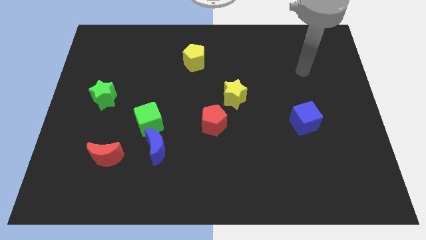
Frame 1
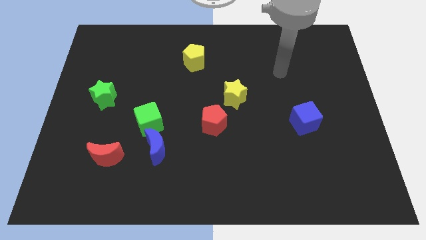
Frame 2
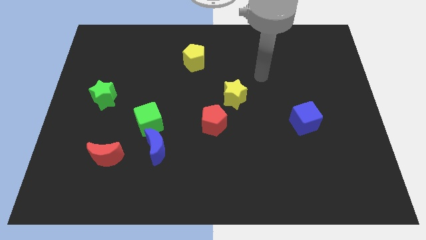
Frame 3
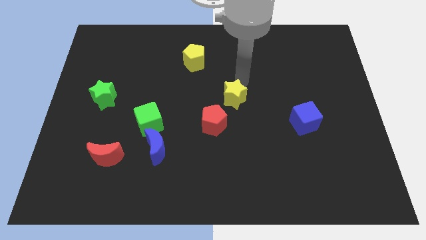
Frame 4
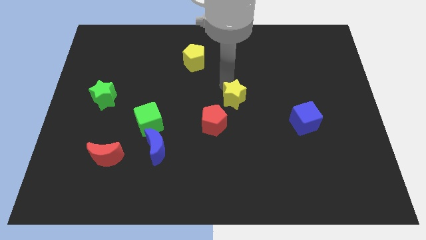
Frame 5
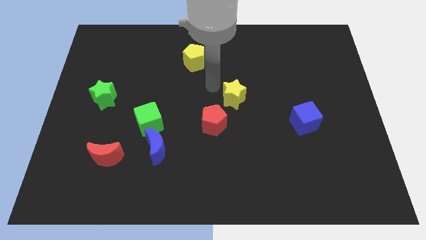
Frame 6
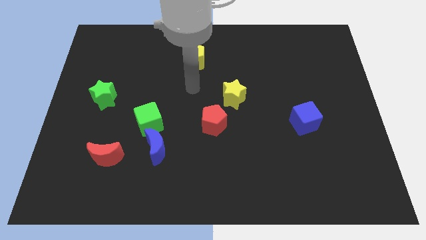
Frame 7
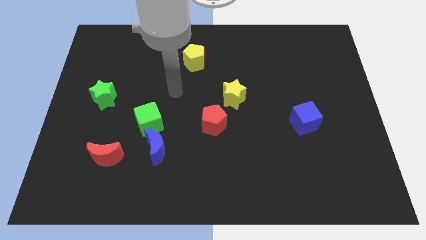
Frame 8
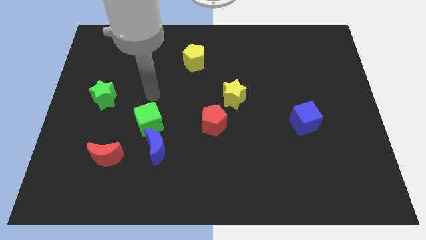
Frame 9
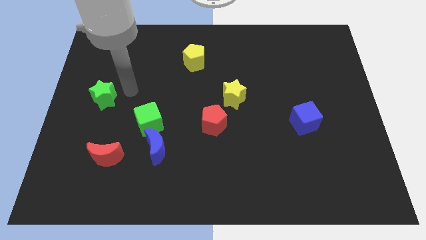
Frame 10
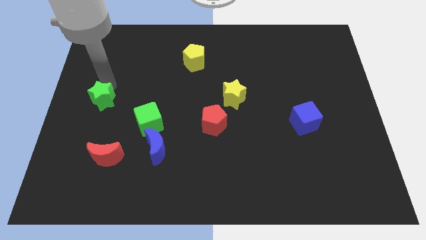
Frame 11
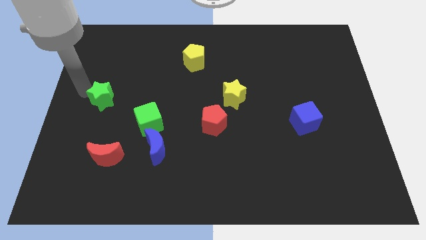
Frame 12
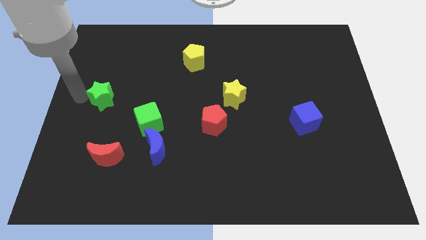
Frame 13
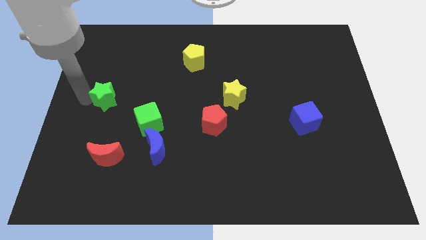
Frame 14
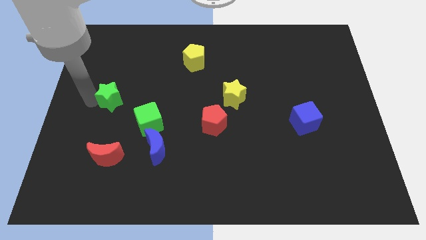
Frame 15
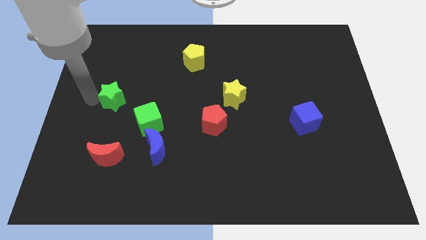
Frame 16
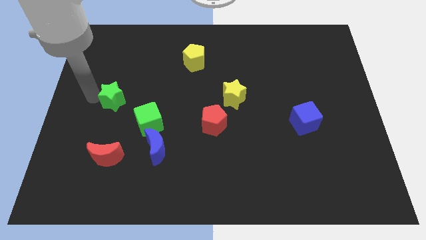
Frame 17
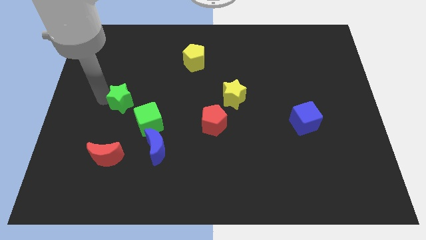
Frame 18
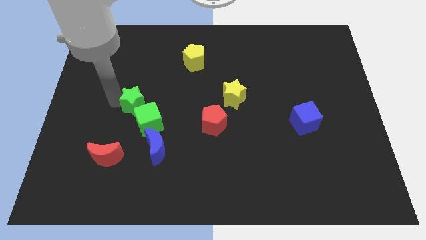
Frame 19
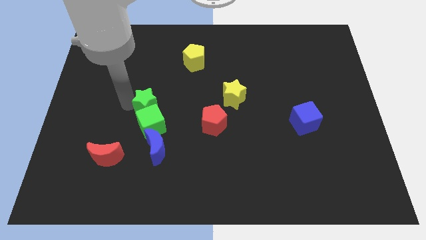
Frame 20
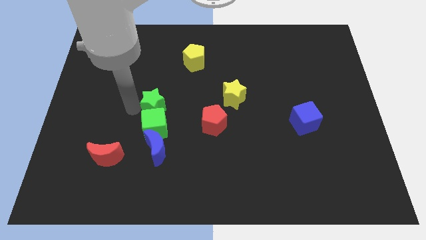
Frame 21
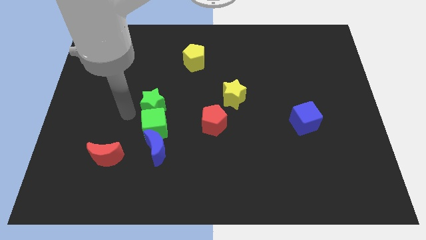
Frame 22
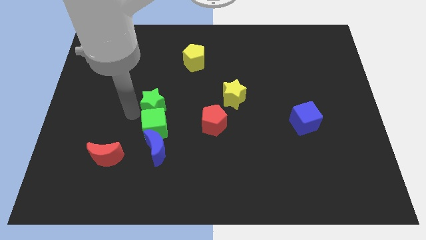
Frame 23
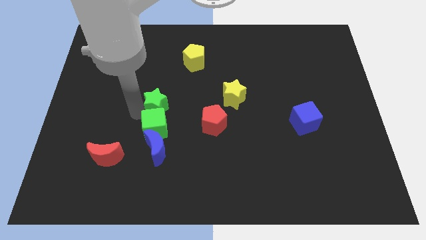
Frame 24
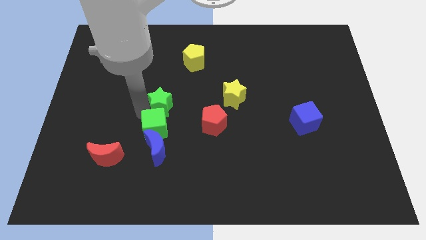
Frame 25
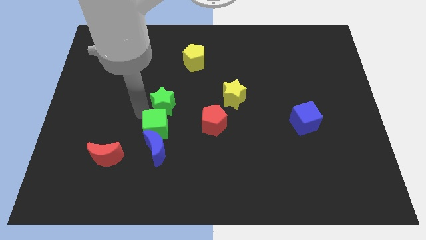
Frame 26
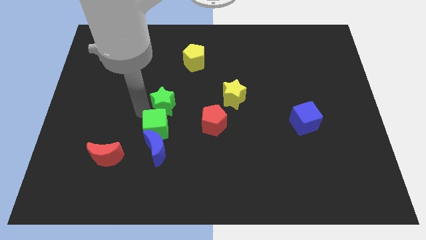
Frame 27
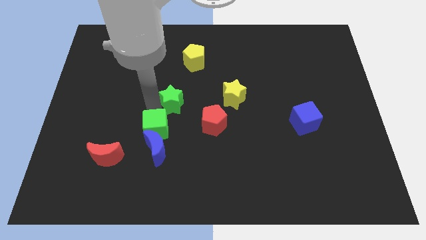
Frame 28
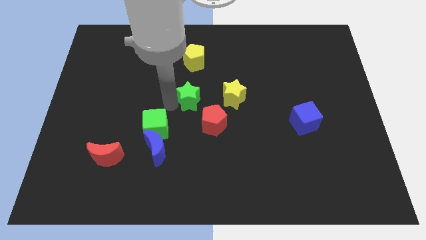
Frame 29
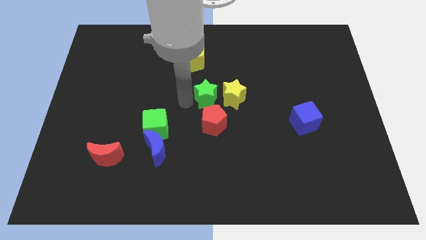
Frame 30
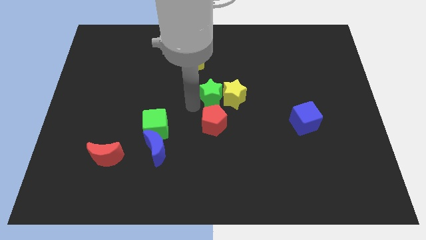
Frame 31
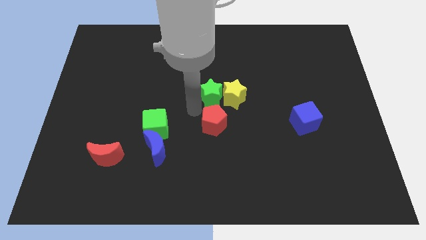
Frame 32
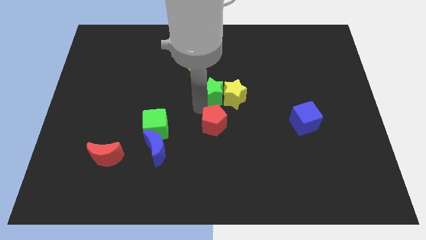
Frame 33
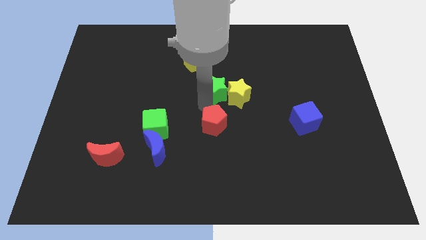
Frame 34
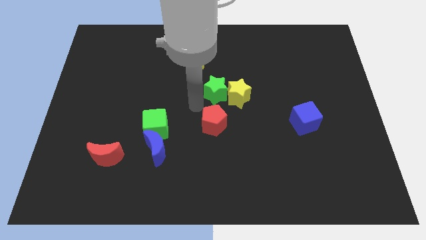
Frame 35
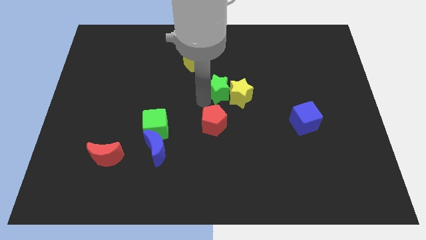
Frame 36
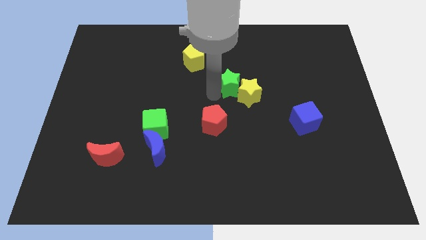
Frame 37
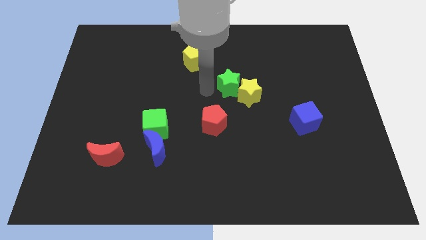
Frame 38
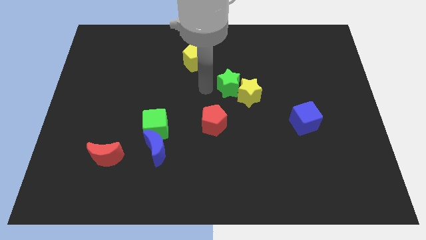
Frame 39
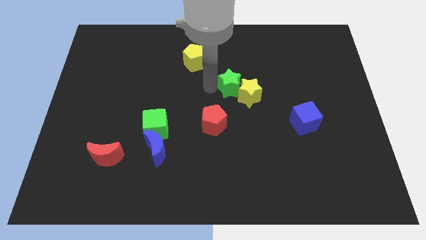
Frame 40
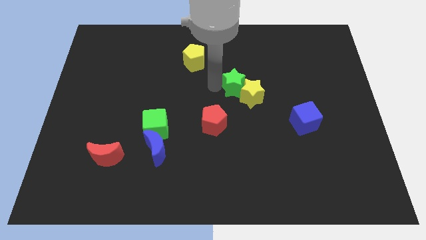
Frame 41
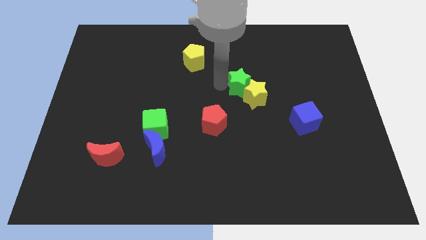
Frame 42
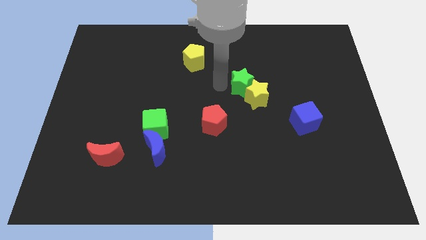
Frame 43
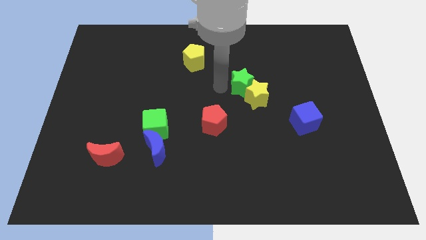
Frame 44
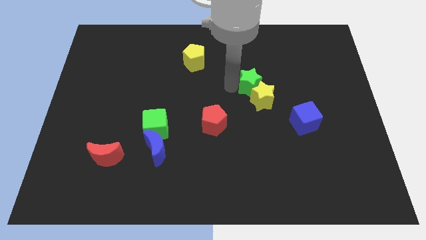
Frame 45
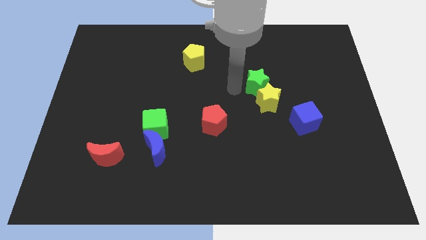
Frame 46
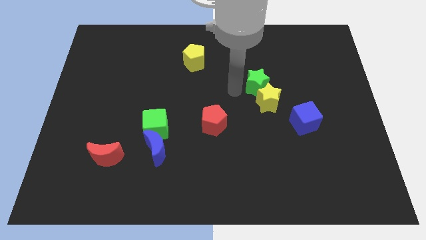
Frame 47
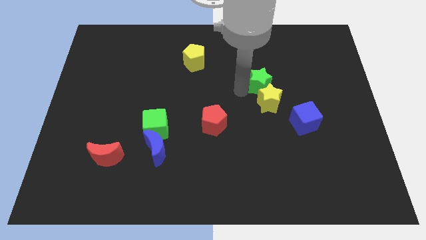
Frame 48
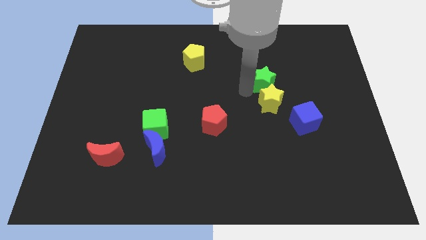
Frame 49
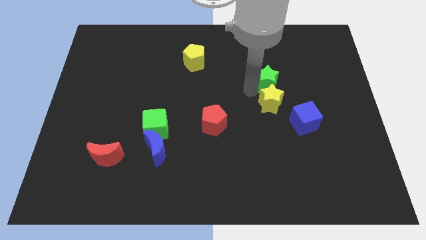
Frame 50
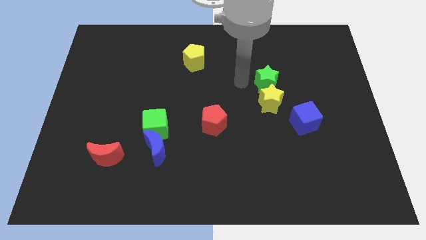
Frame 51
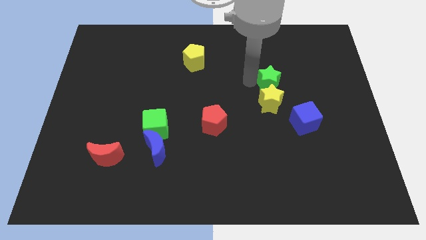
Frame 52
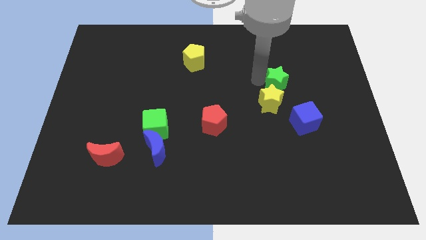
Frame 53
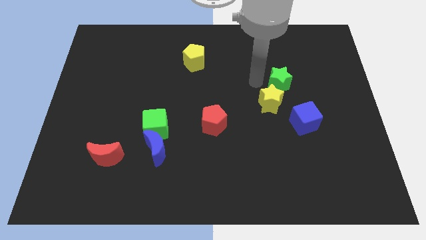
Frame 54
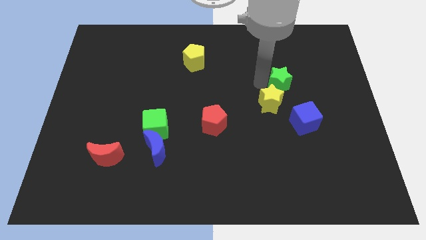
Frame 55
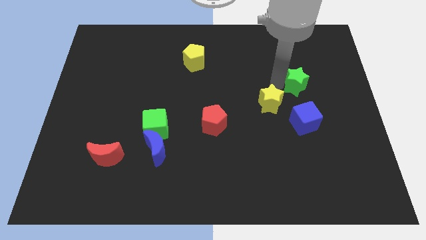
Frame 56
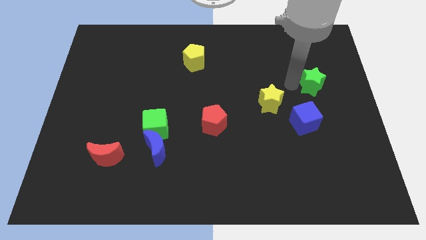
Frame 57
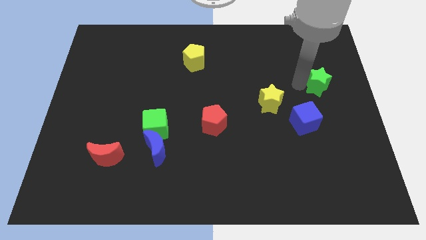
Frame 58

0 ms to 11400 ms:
push the green star to the right side

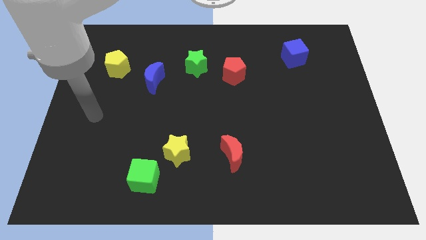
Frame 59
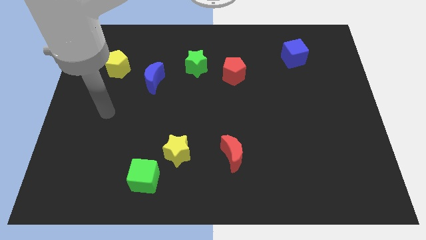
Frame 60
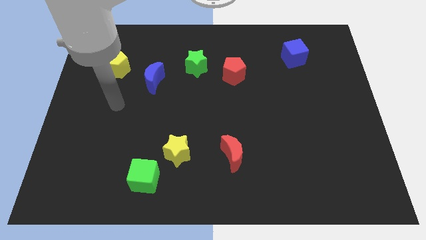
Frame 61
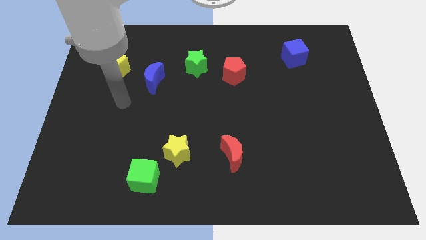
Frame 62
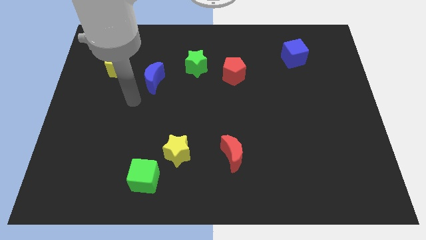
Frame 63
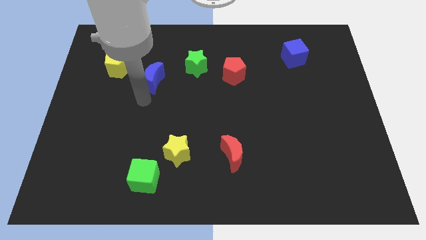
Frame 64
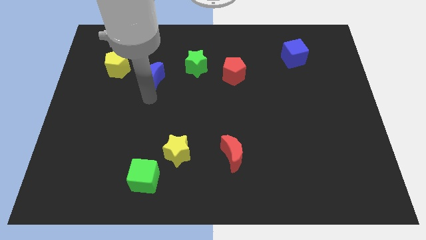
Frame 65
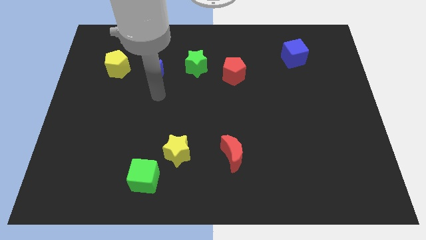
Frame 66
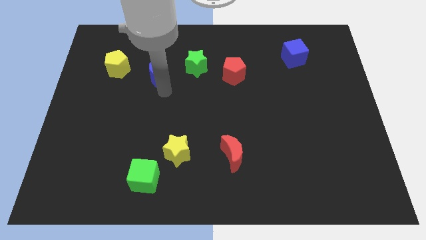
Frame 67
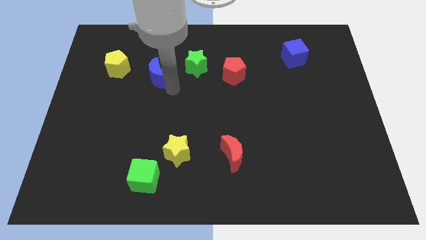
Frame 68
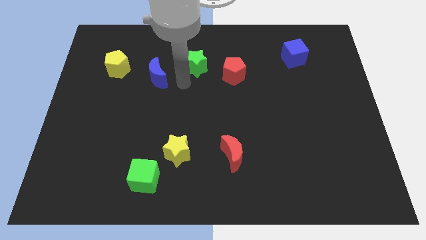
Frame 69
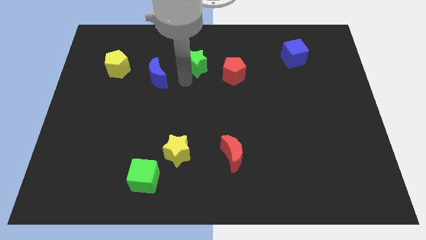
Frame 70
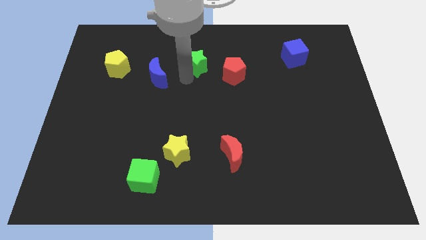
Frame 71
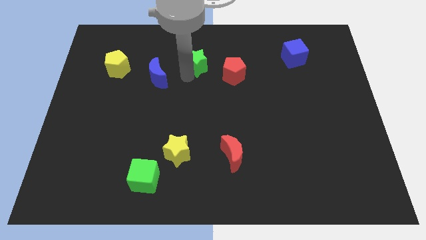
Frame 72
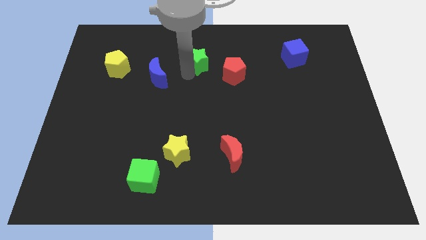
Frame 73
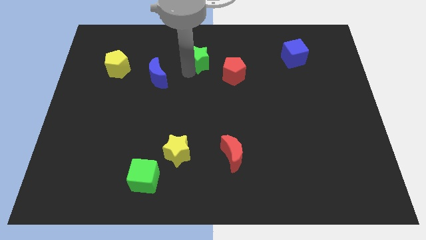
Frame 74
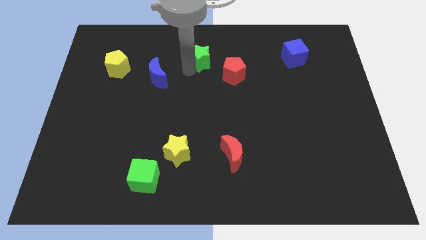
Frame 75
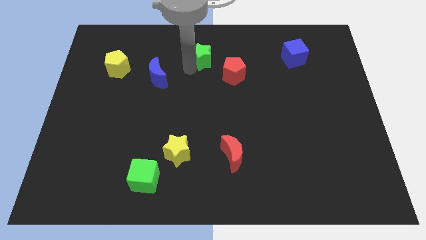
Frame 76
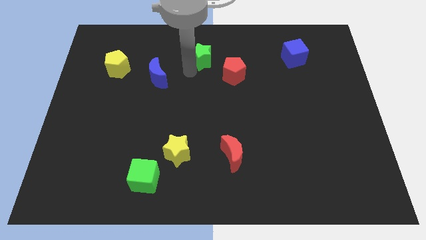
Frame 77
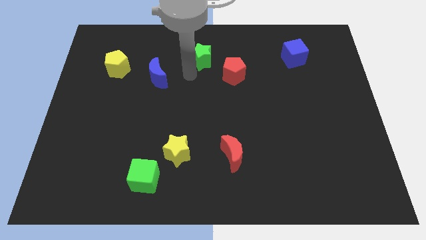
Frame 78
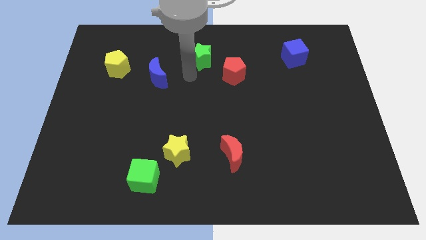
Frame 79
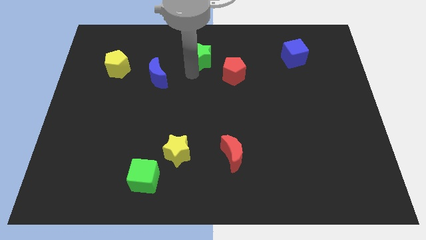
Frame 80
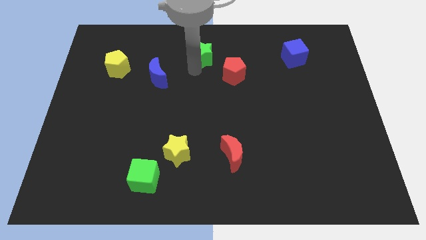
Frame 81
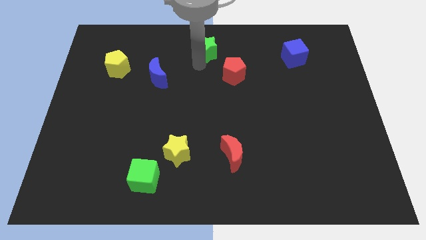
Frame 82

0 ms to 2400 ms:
slide the green star to the towards your base
